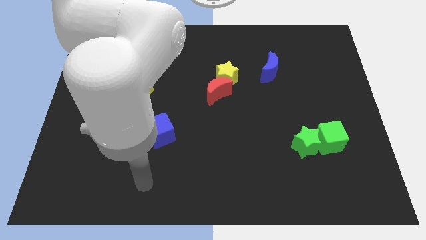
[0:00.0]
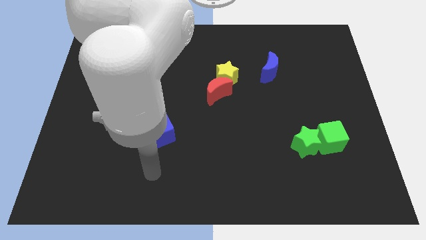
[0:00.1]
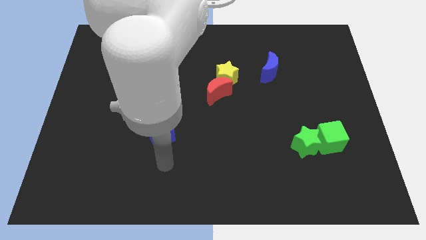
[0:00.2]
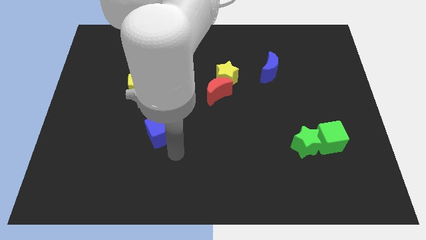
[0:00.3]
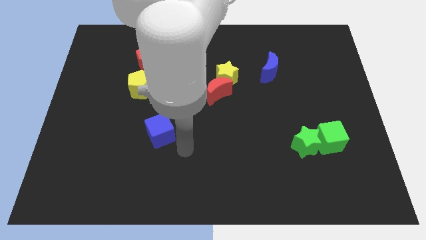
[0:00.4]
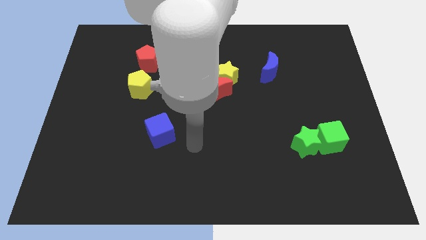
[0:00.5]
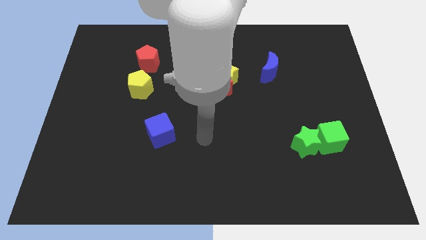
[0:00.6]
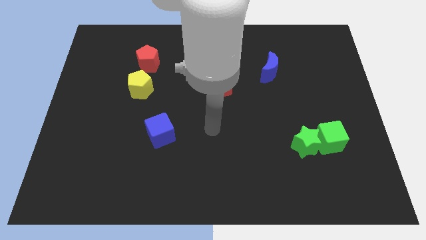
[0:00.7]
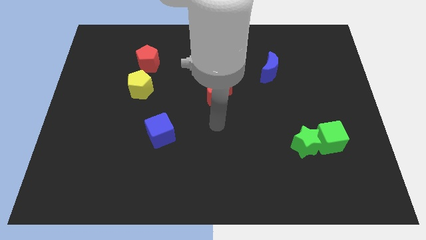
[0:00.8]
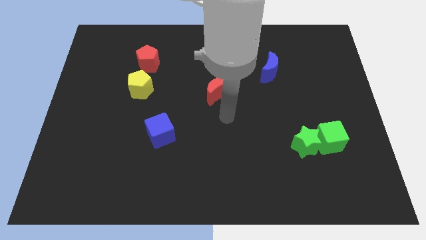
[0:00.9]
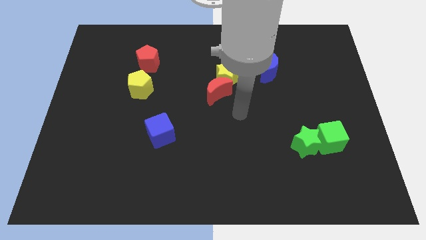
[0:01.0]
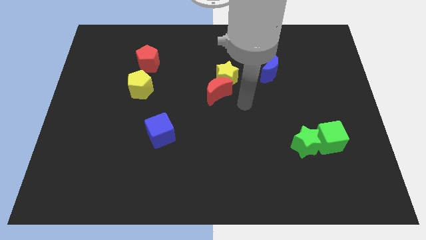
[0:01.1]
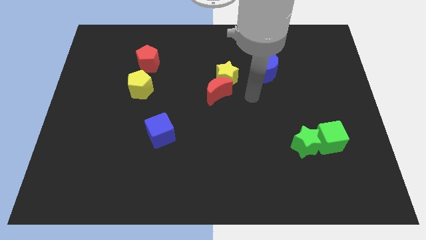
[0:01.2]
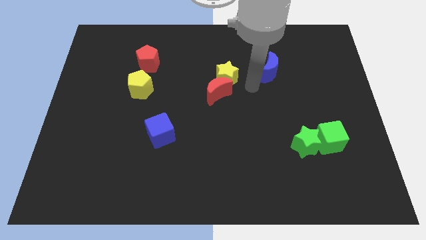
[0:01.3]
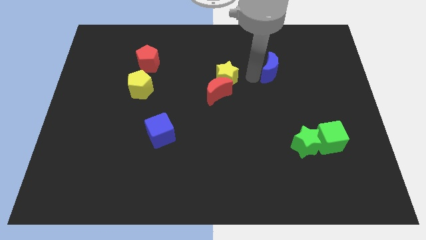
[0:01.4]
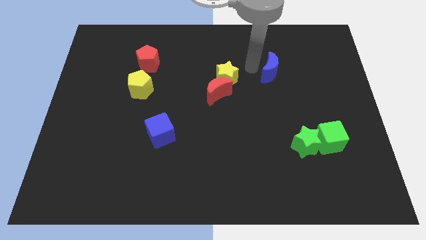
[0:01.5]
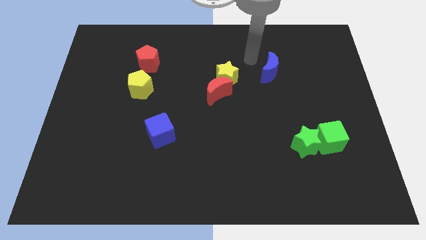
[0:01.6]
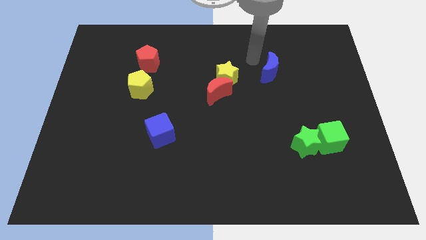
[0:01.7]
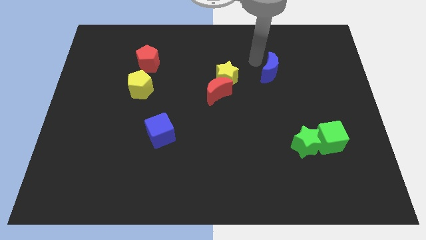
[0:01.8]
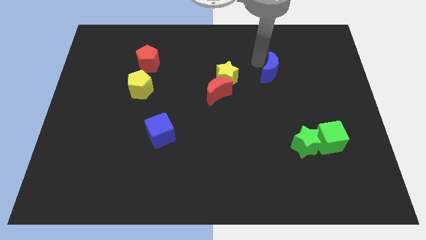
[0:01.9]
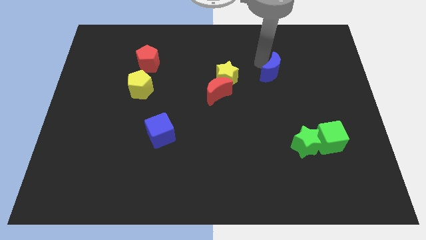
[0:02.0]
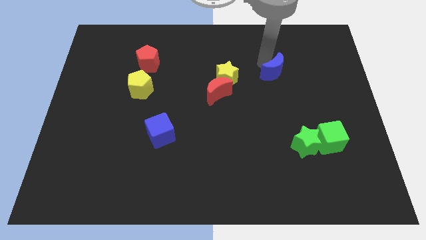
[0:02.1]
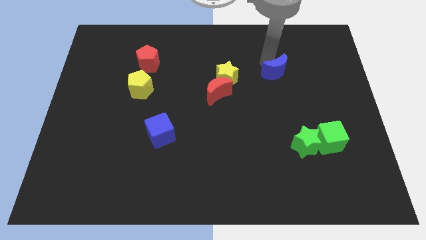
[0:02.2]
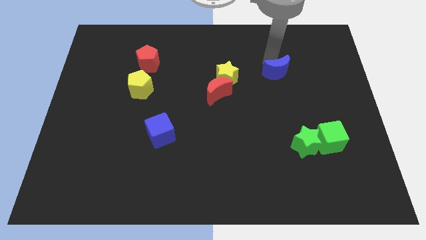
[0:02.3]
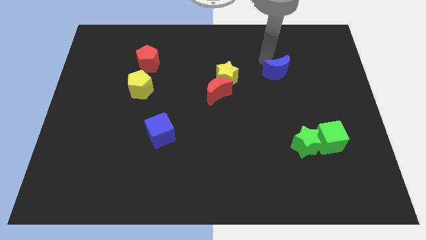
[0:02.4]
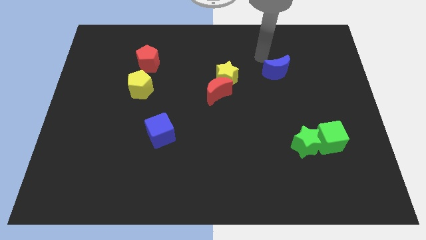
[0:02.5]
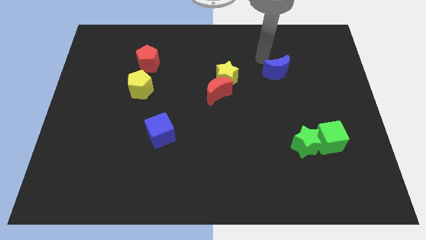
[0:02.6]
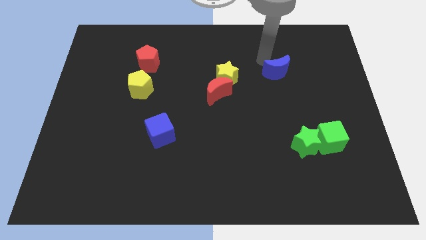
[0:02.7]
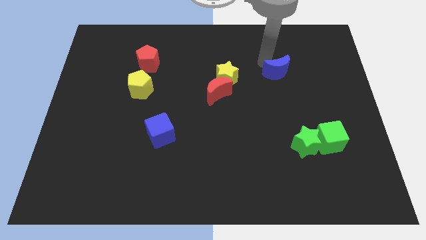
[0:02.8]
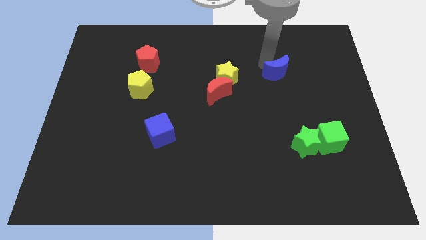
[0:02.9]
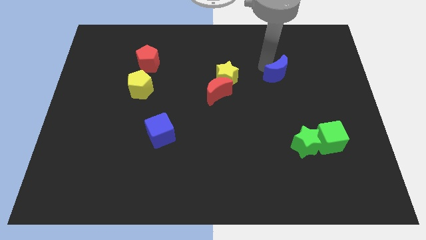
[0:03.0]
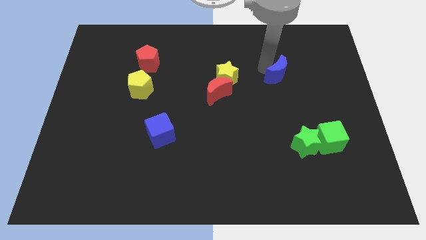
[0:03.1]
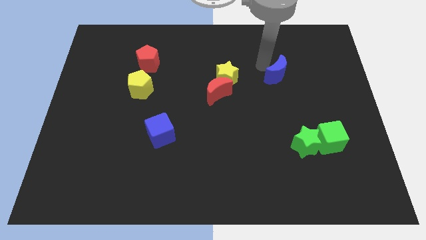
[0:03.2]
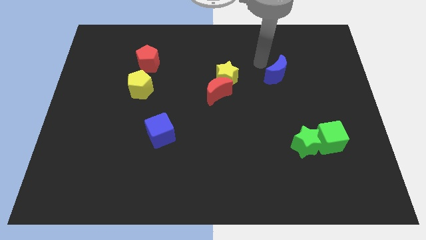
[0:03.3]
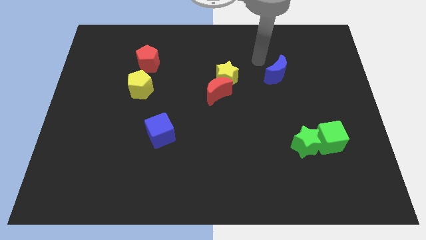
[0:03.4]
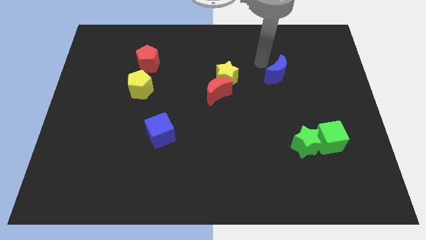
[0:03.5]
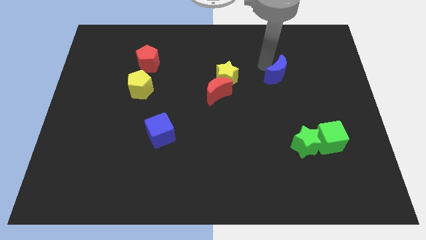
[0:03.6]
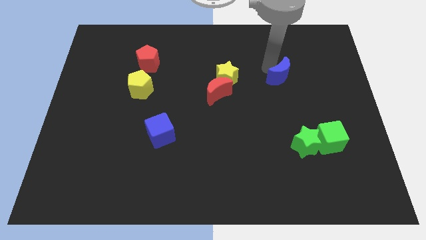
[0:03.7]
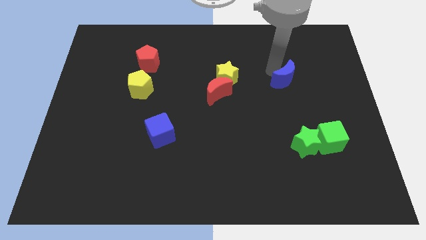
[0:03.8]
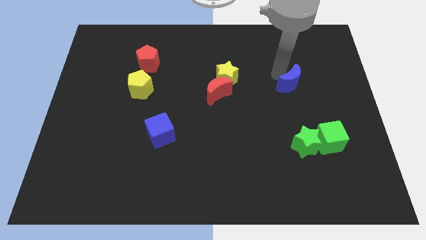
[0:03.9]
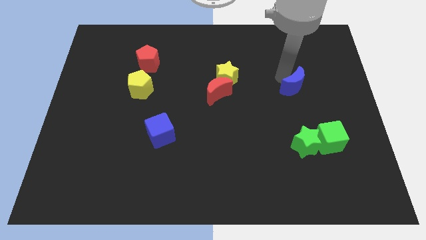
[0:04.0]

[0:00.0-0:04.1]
move the blue moon somewhat downwards and to the right

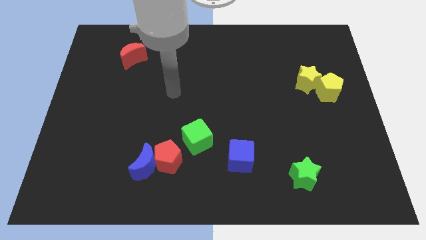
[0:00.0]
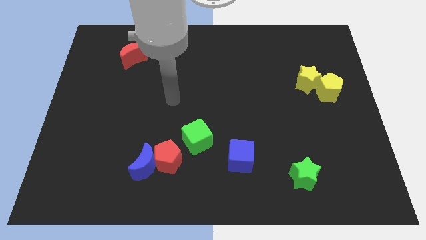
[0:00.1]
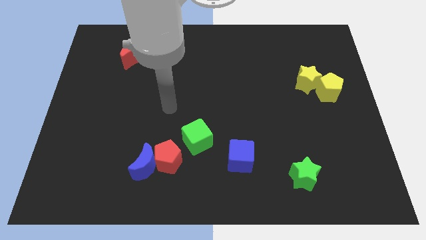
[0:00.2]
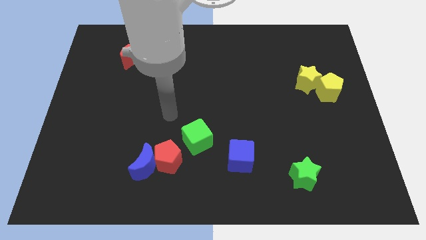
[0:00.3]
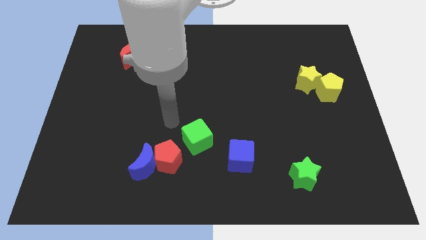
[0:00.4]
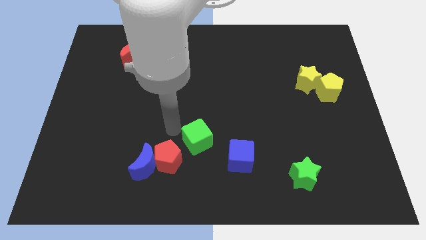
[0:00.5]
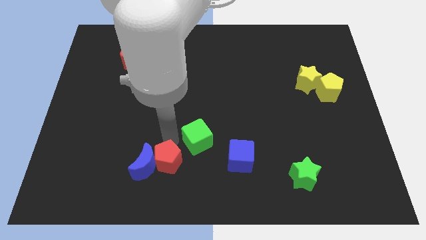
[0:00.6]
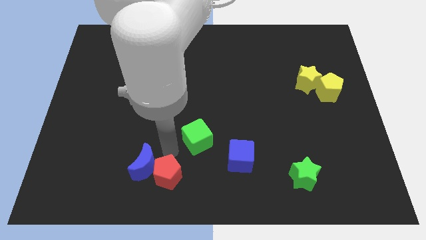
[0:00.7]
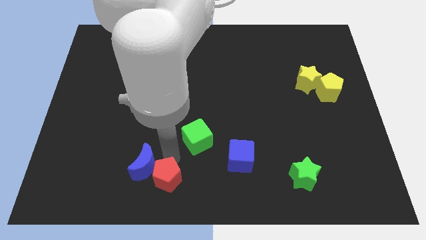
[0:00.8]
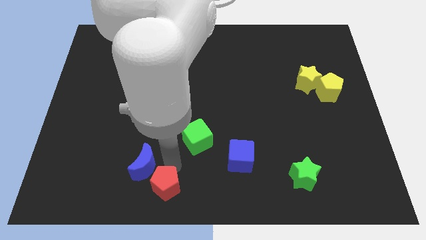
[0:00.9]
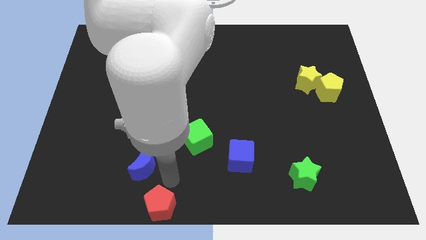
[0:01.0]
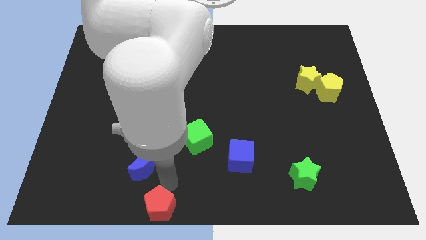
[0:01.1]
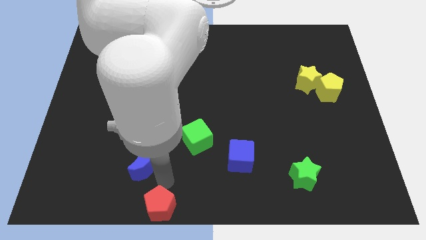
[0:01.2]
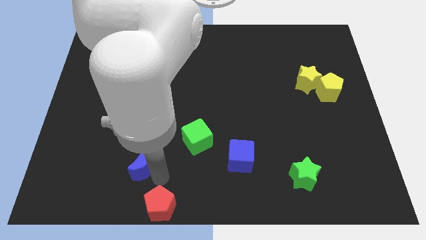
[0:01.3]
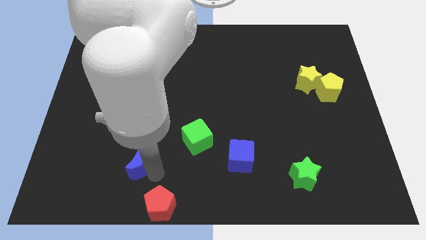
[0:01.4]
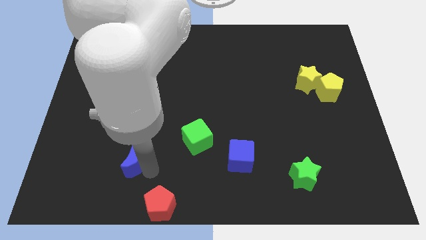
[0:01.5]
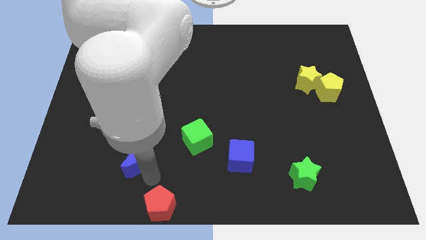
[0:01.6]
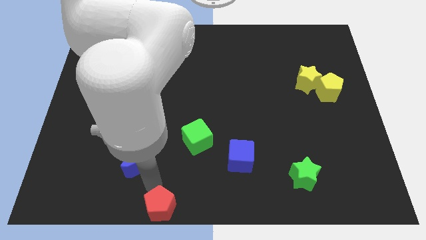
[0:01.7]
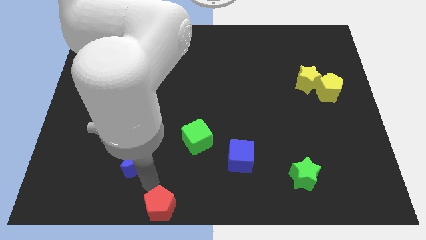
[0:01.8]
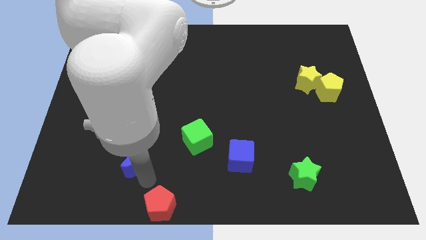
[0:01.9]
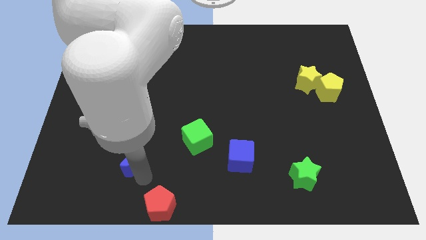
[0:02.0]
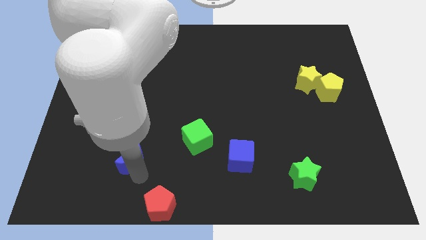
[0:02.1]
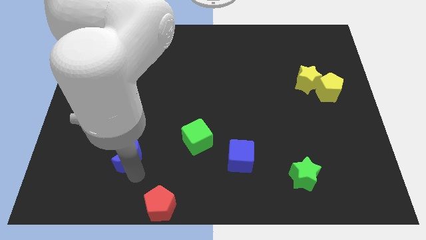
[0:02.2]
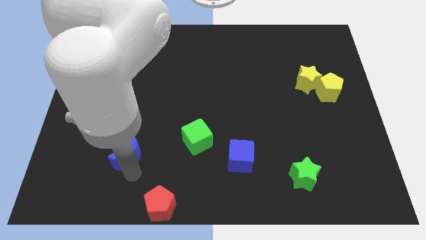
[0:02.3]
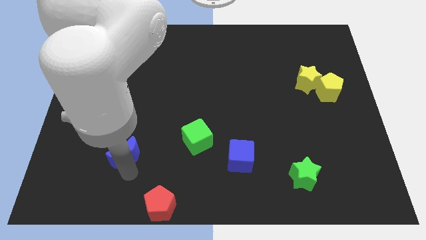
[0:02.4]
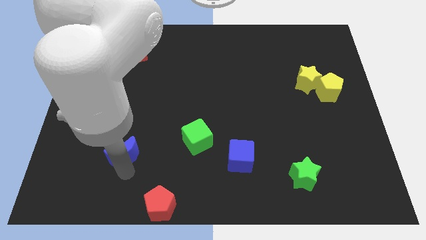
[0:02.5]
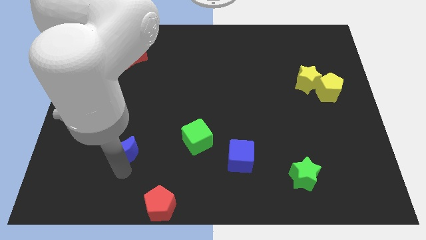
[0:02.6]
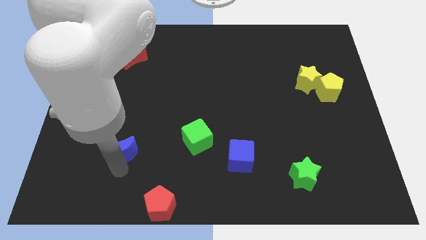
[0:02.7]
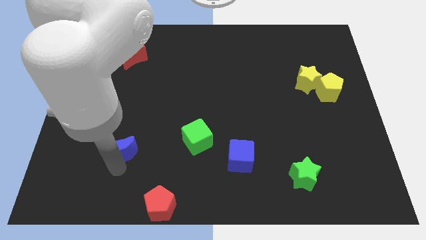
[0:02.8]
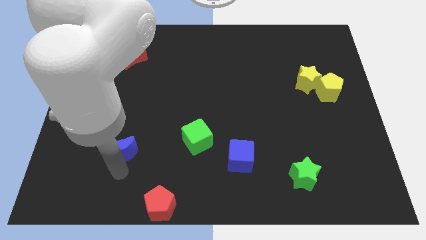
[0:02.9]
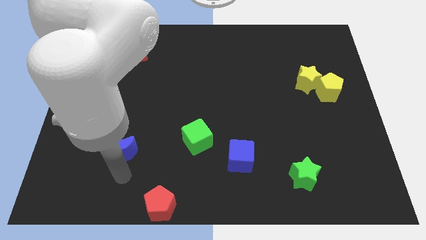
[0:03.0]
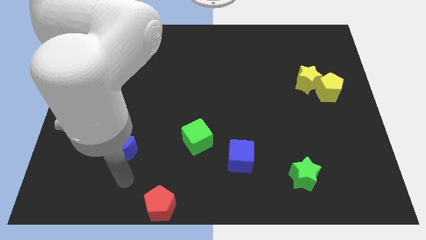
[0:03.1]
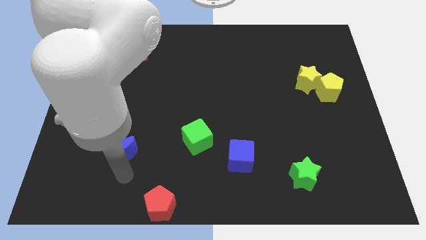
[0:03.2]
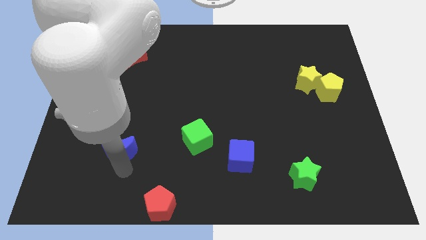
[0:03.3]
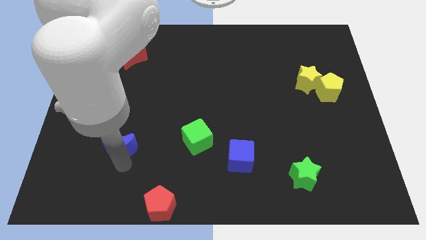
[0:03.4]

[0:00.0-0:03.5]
slide the blue moon slightly up and then left
